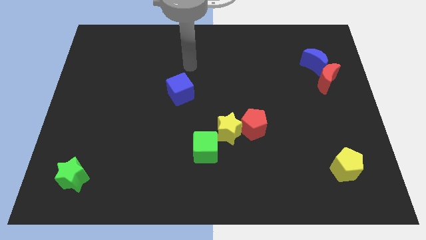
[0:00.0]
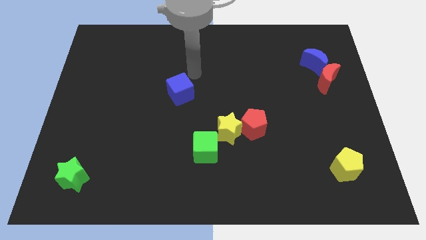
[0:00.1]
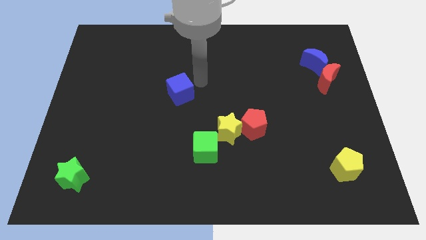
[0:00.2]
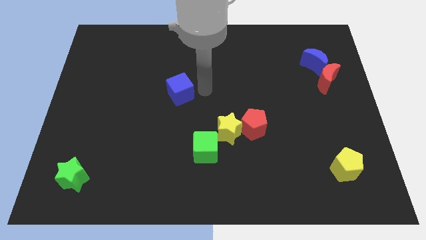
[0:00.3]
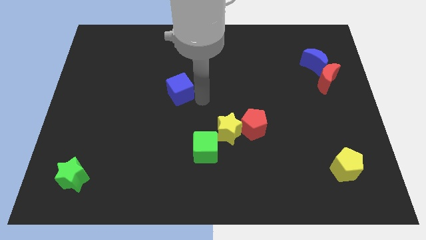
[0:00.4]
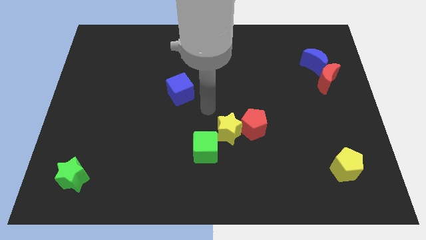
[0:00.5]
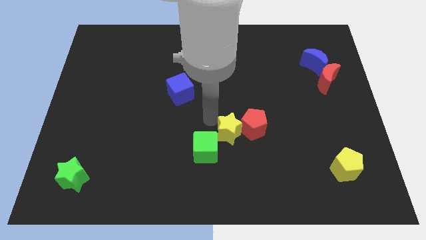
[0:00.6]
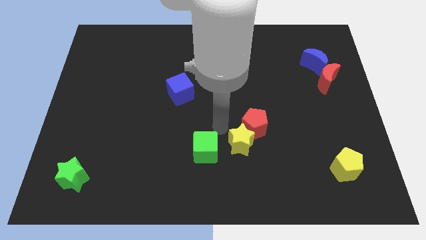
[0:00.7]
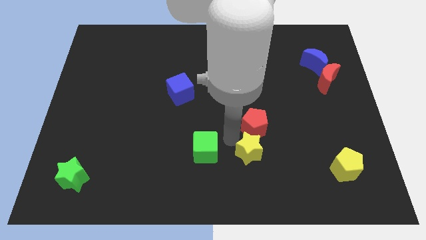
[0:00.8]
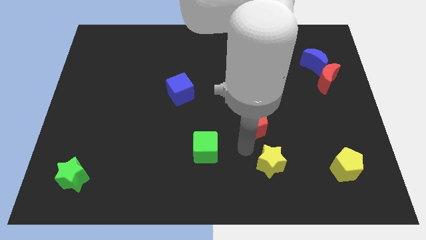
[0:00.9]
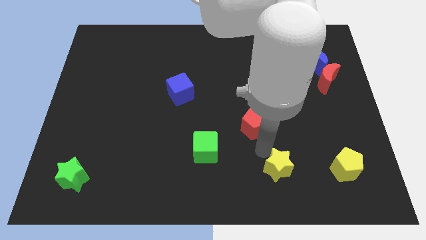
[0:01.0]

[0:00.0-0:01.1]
pull the red pentagon apart from the yellow star

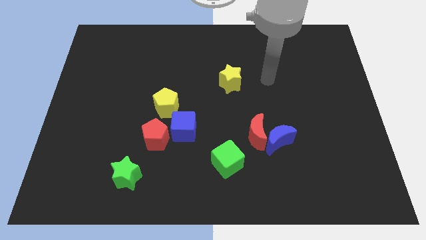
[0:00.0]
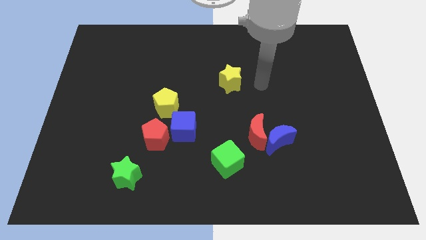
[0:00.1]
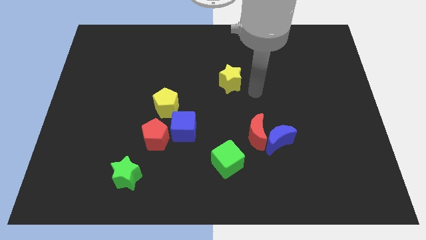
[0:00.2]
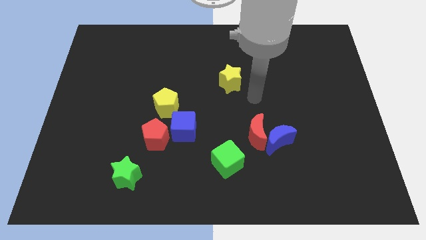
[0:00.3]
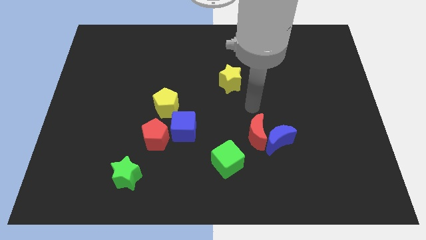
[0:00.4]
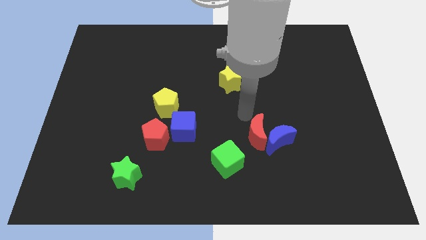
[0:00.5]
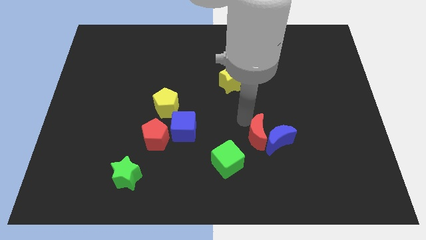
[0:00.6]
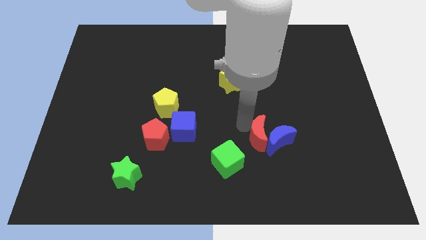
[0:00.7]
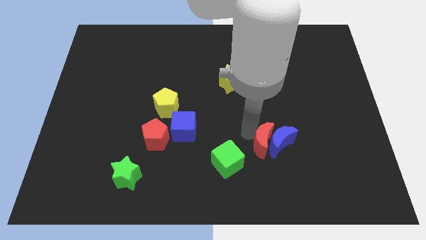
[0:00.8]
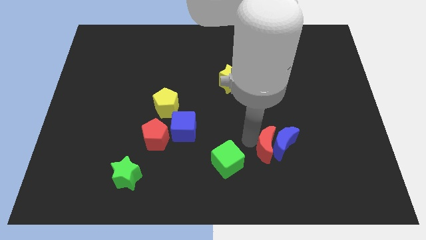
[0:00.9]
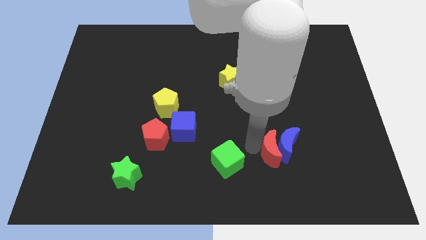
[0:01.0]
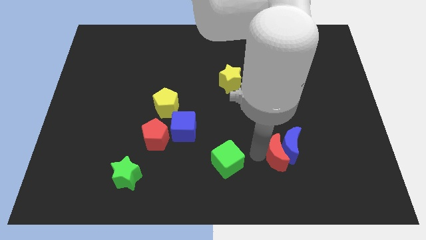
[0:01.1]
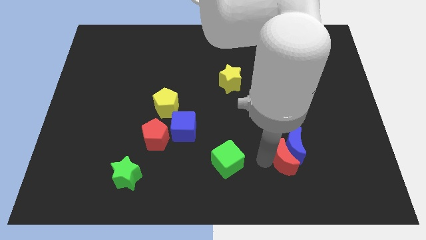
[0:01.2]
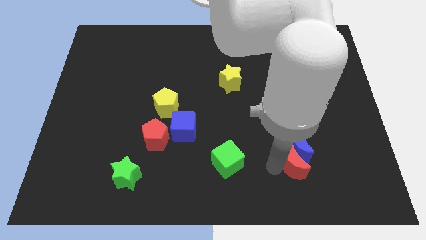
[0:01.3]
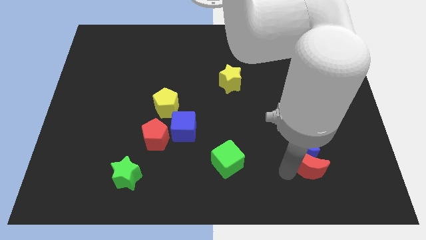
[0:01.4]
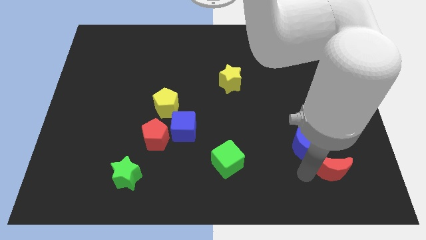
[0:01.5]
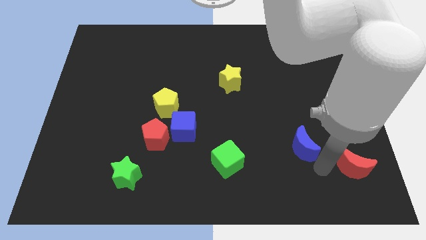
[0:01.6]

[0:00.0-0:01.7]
separate the blue moon from the red moon

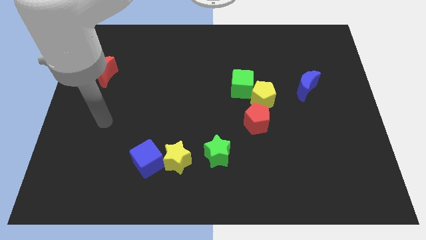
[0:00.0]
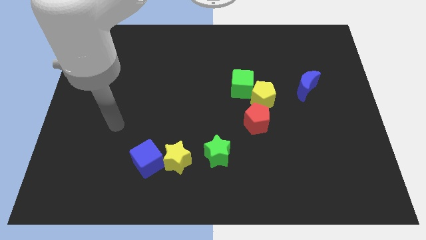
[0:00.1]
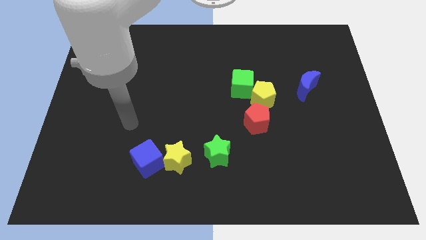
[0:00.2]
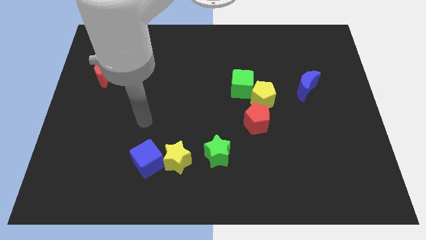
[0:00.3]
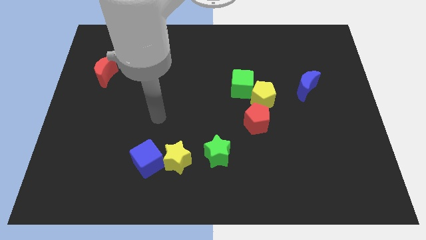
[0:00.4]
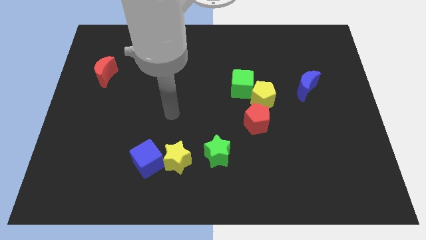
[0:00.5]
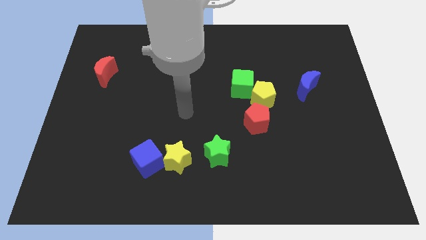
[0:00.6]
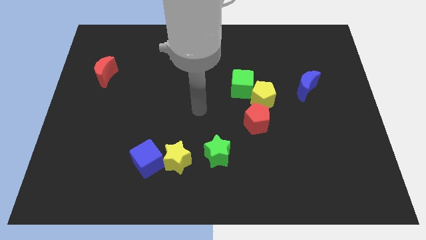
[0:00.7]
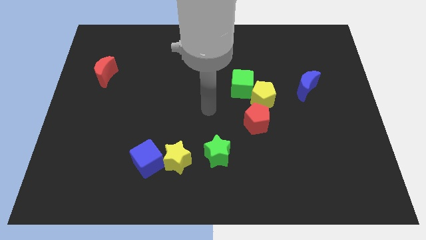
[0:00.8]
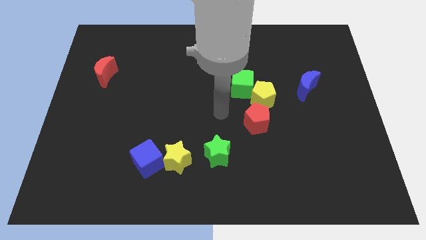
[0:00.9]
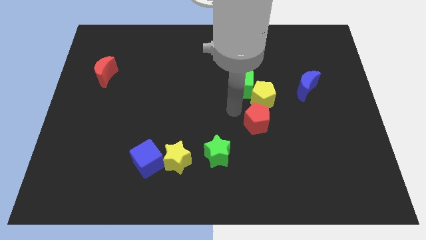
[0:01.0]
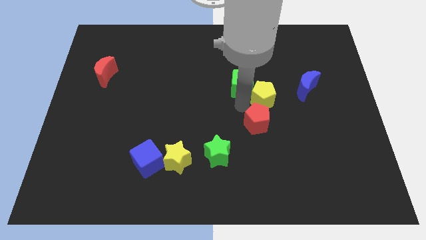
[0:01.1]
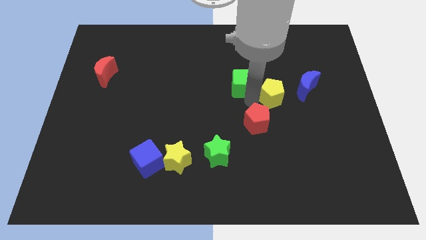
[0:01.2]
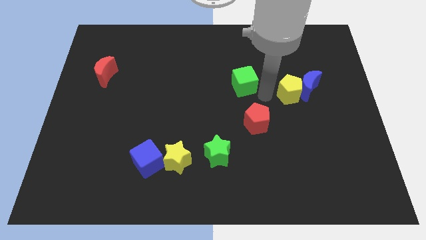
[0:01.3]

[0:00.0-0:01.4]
separate the green cube from the yellow pentagon

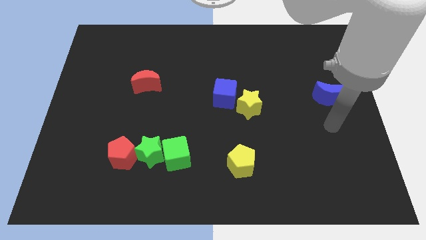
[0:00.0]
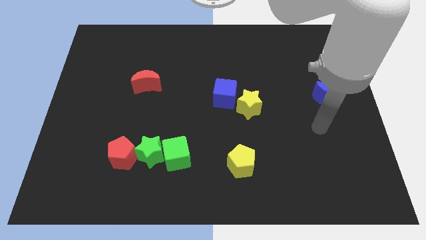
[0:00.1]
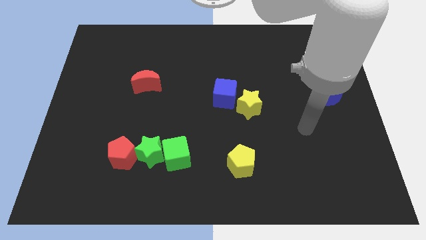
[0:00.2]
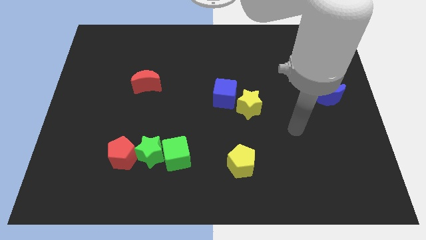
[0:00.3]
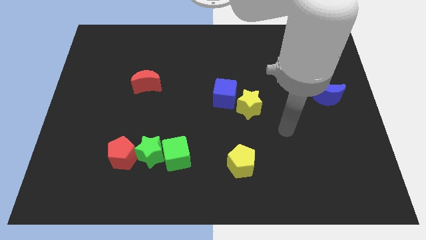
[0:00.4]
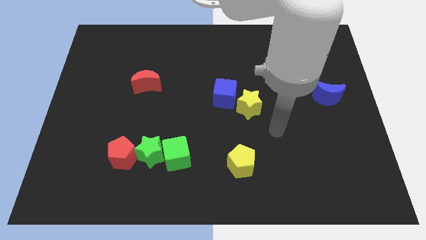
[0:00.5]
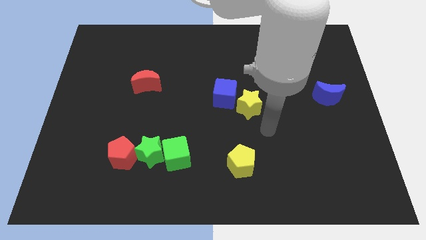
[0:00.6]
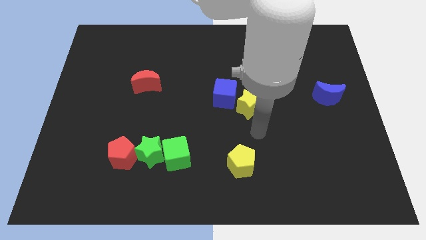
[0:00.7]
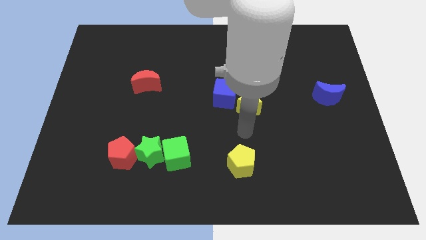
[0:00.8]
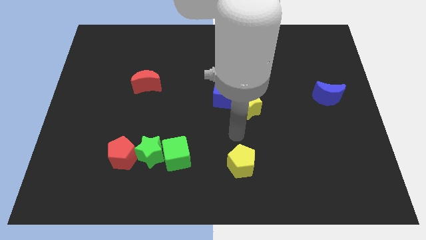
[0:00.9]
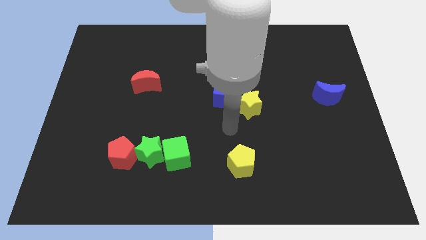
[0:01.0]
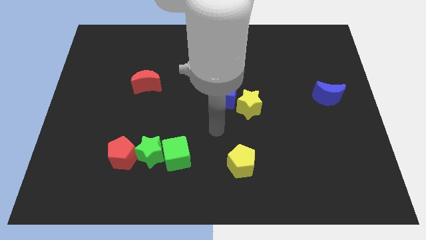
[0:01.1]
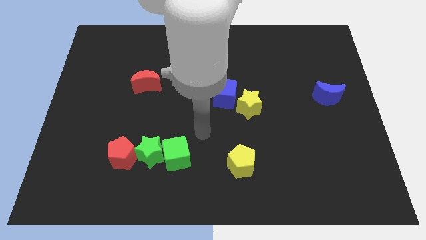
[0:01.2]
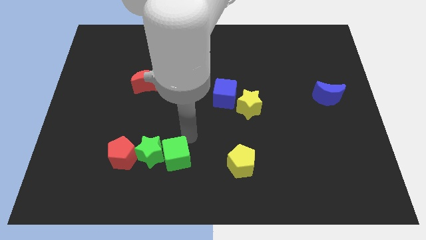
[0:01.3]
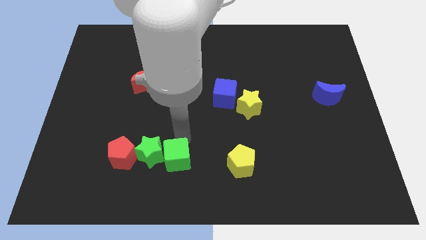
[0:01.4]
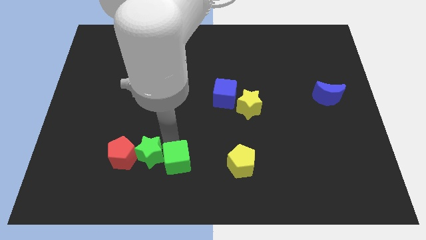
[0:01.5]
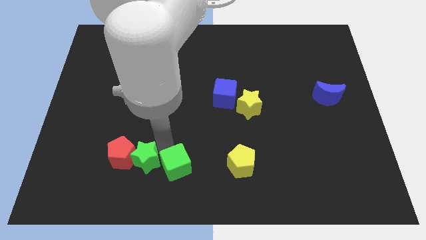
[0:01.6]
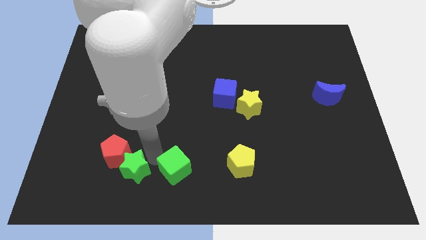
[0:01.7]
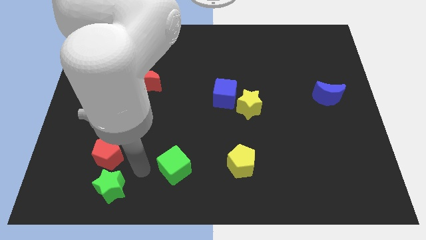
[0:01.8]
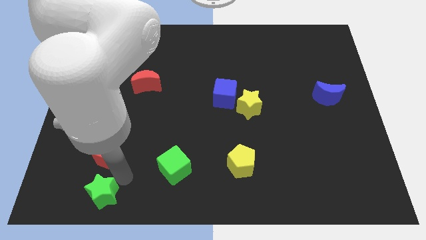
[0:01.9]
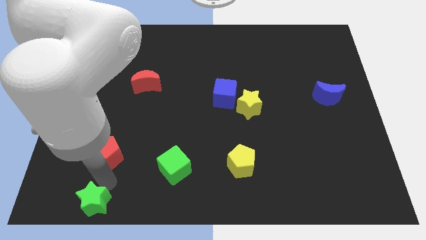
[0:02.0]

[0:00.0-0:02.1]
separate the red pentagon from the green star

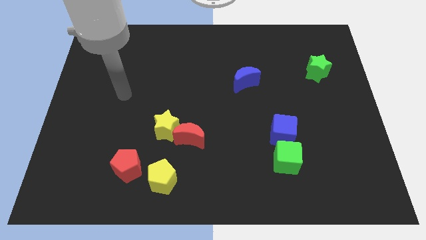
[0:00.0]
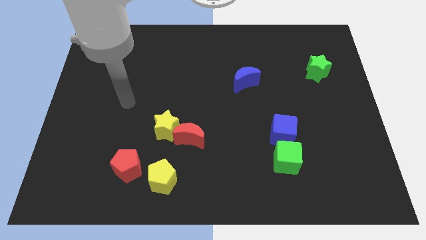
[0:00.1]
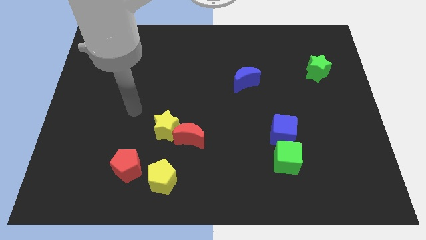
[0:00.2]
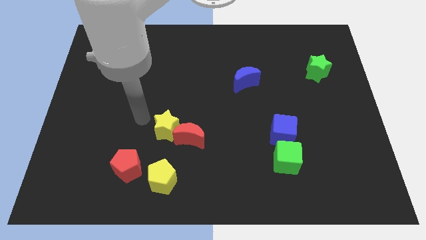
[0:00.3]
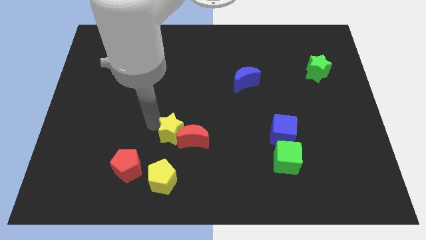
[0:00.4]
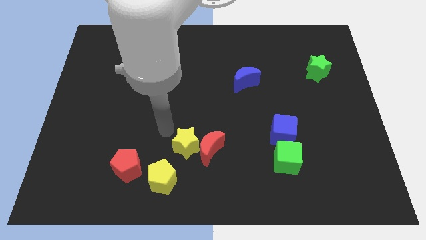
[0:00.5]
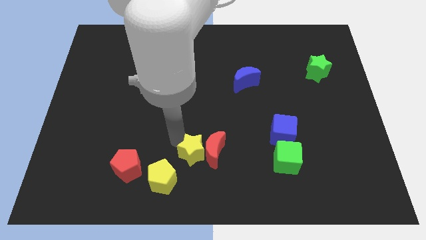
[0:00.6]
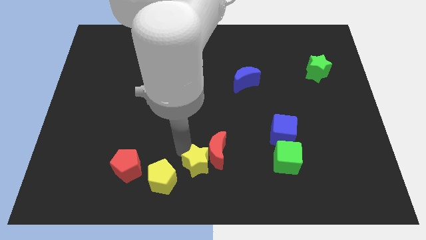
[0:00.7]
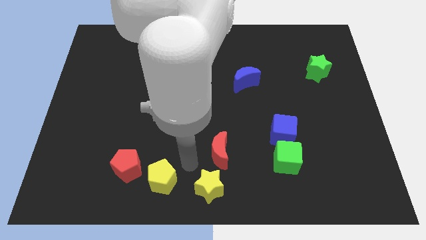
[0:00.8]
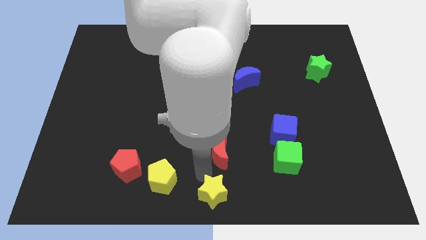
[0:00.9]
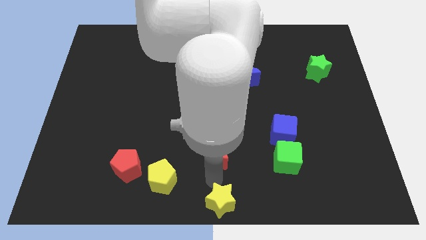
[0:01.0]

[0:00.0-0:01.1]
move the red moon away from the yellow star

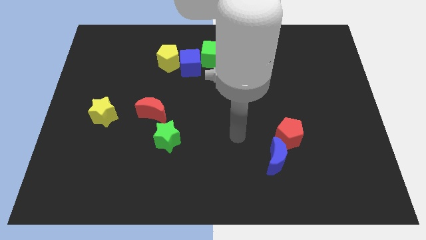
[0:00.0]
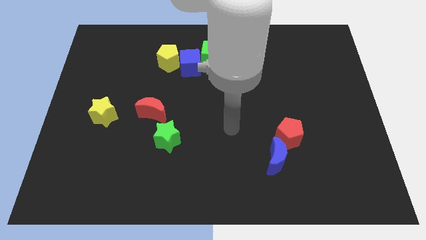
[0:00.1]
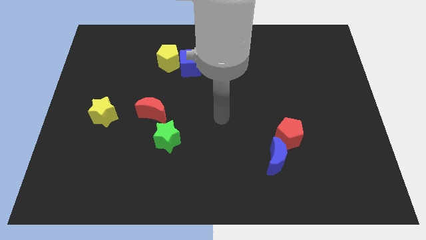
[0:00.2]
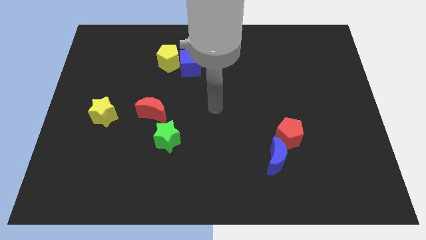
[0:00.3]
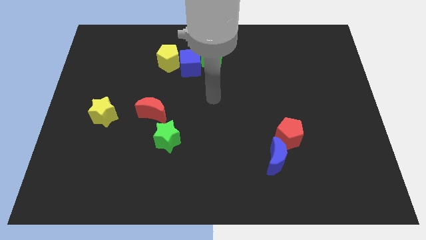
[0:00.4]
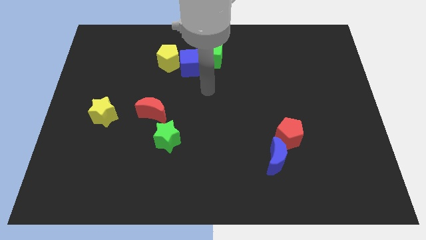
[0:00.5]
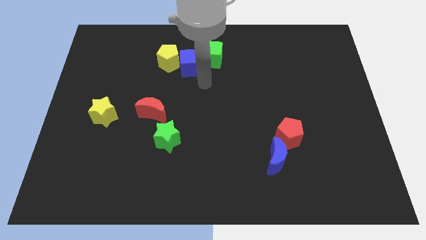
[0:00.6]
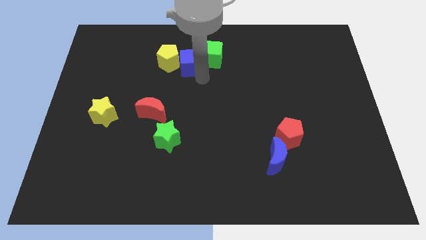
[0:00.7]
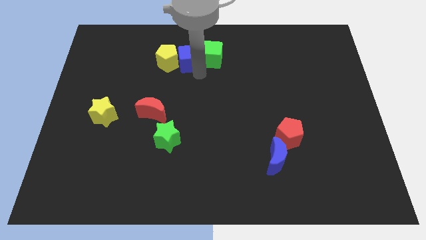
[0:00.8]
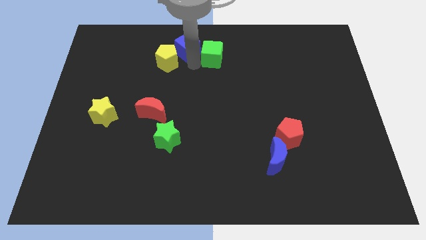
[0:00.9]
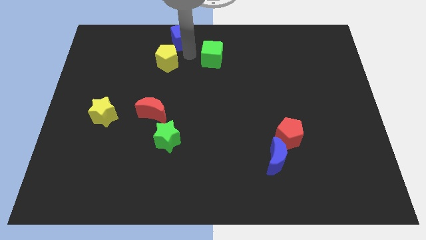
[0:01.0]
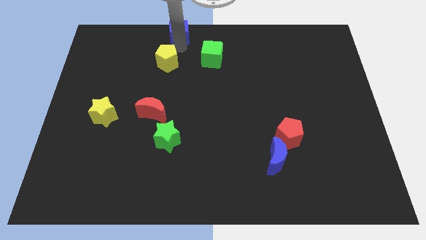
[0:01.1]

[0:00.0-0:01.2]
move the yellow pentagon away from the blue cube

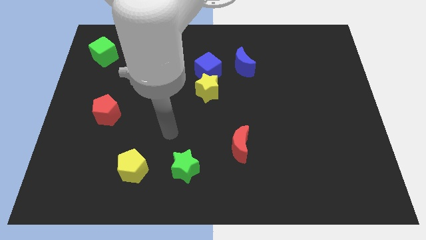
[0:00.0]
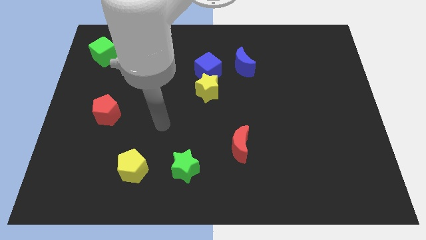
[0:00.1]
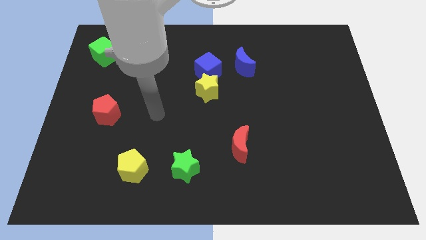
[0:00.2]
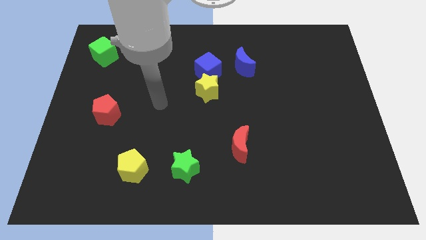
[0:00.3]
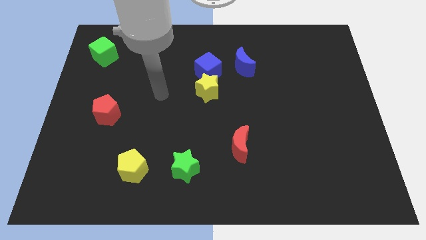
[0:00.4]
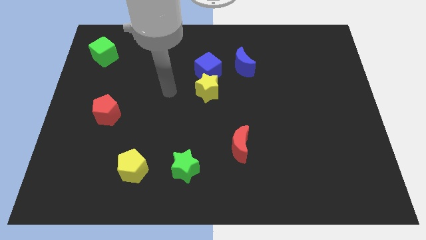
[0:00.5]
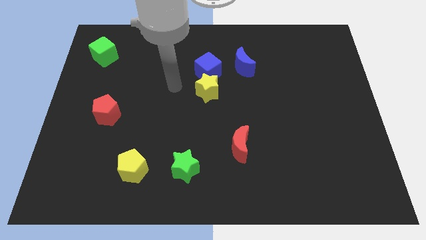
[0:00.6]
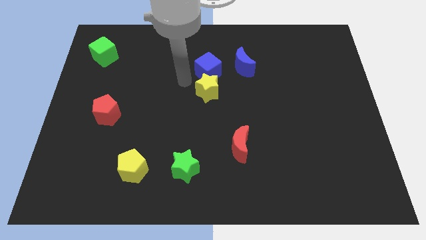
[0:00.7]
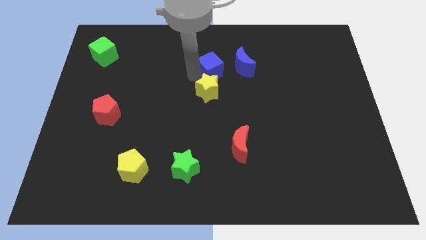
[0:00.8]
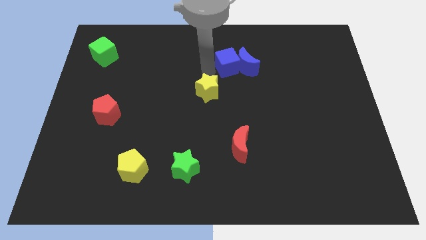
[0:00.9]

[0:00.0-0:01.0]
separate the yellow star from the blue cube
